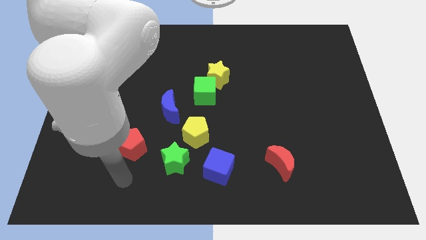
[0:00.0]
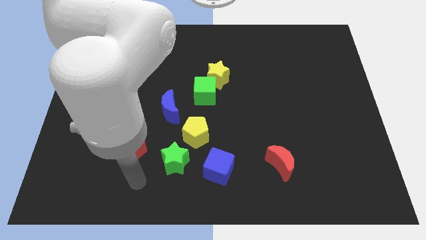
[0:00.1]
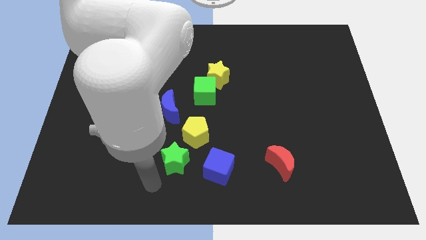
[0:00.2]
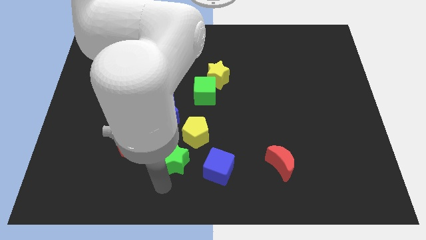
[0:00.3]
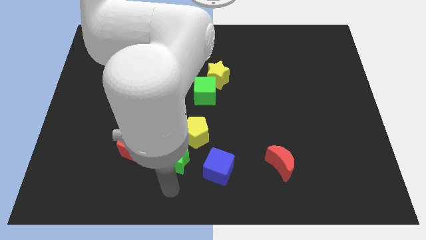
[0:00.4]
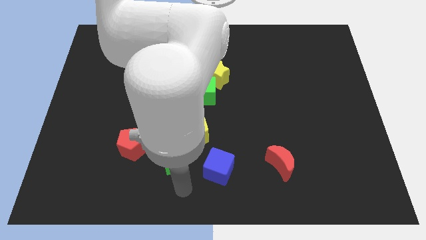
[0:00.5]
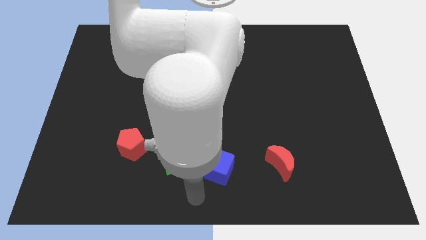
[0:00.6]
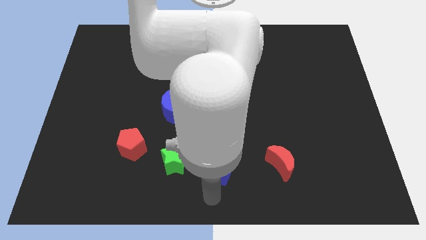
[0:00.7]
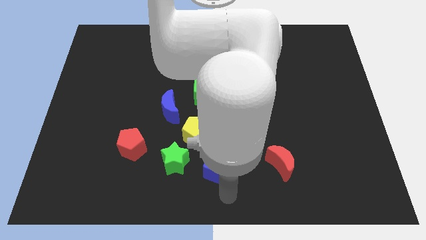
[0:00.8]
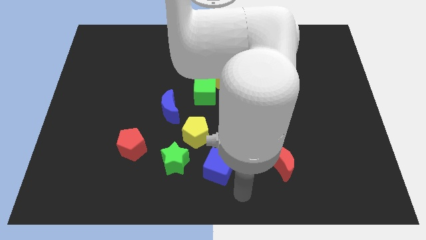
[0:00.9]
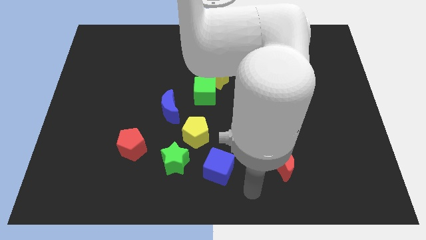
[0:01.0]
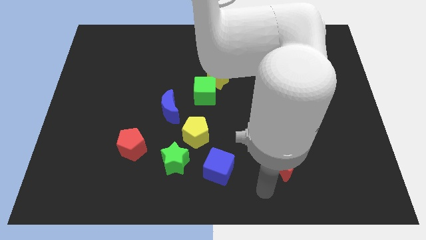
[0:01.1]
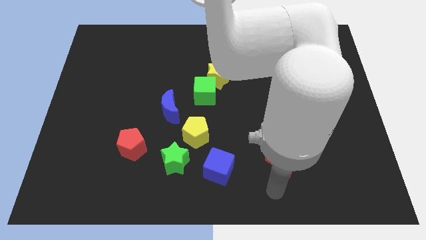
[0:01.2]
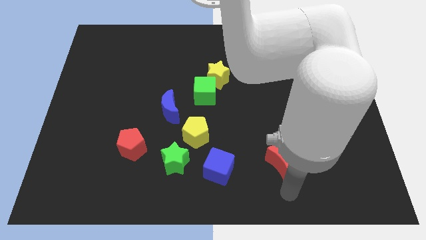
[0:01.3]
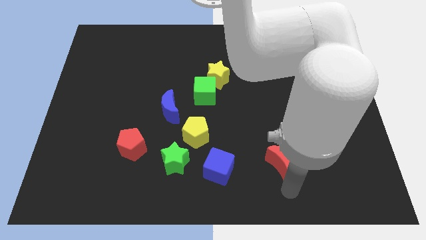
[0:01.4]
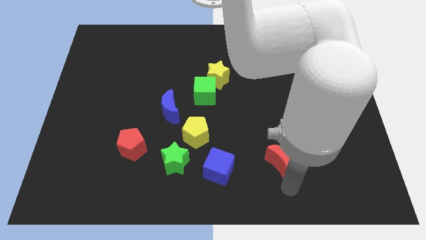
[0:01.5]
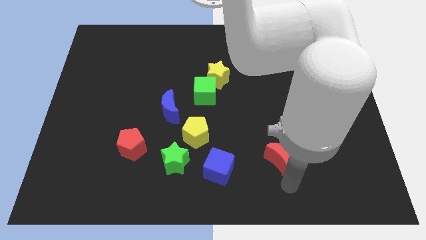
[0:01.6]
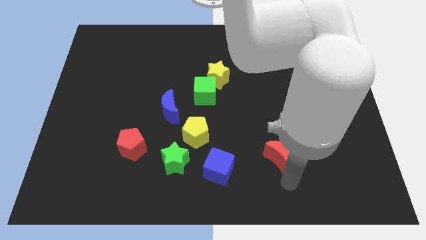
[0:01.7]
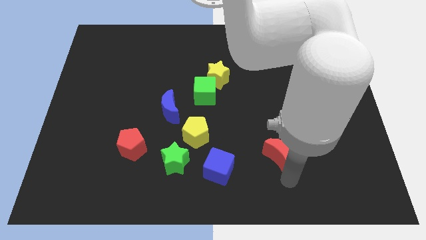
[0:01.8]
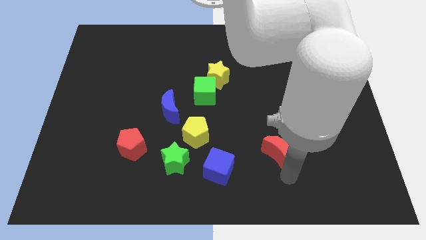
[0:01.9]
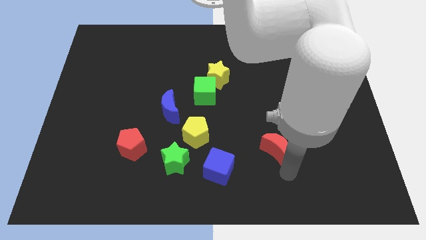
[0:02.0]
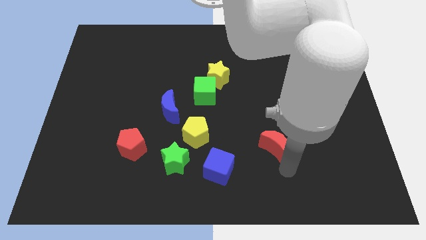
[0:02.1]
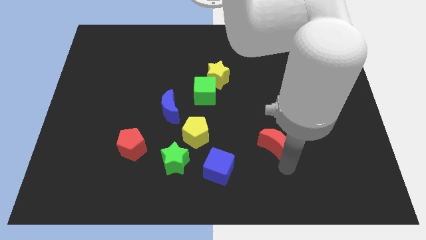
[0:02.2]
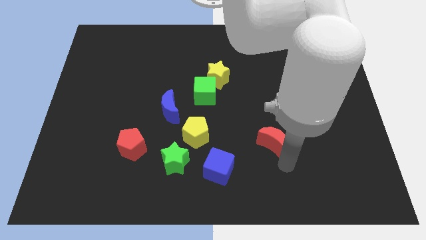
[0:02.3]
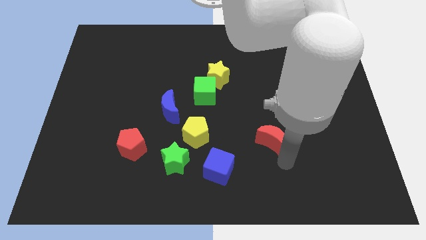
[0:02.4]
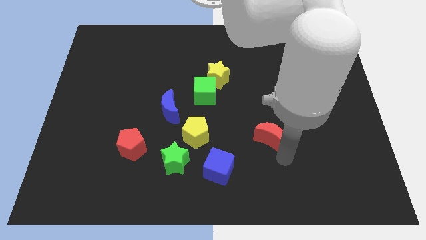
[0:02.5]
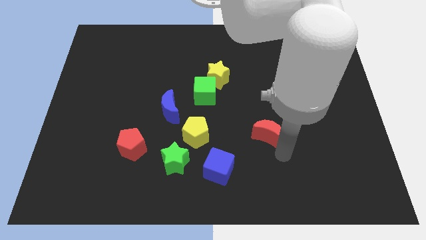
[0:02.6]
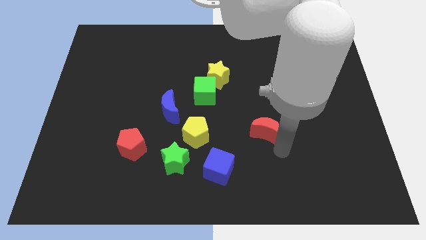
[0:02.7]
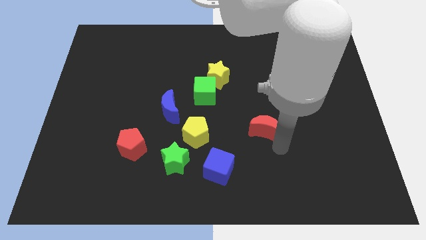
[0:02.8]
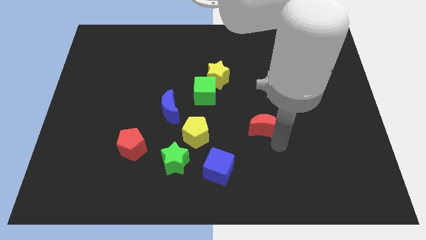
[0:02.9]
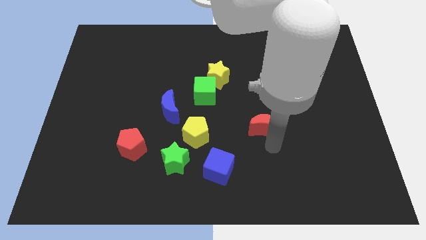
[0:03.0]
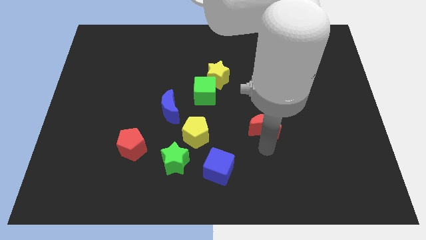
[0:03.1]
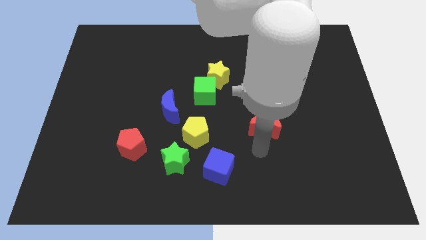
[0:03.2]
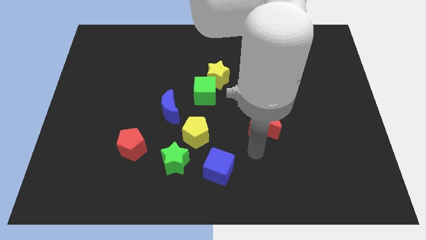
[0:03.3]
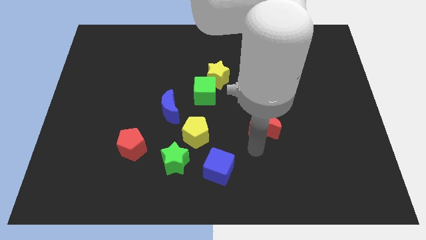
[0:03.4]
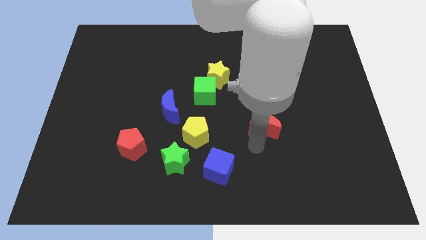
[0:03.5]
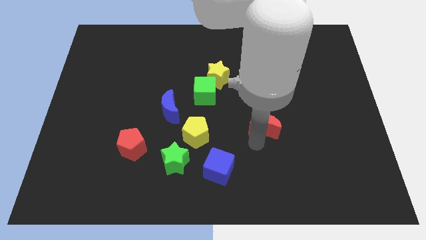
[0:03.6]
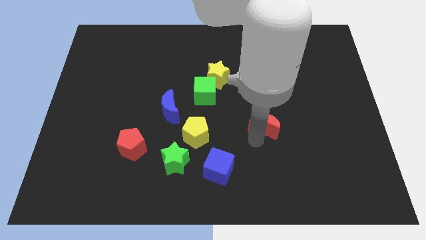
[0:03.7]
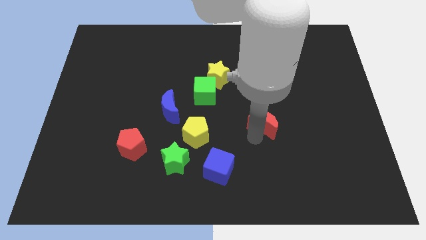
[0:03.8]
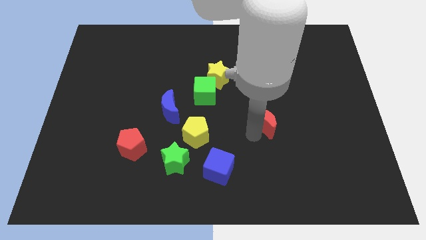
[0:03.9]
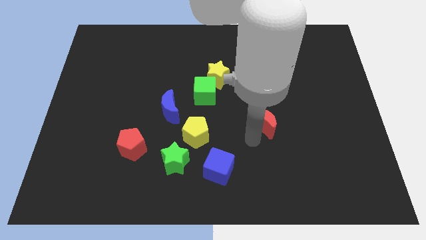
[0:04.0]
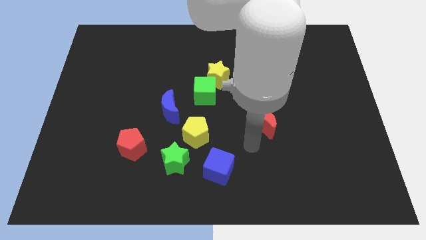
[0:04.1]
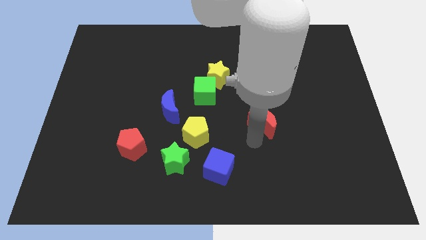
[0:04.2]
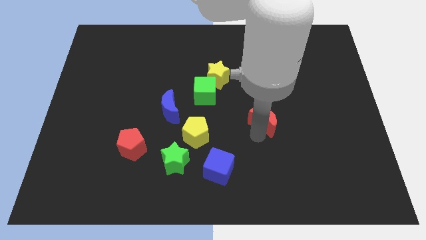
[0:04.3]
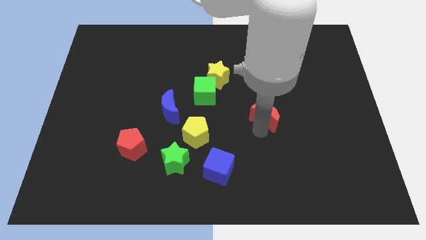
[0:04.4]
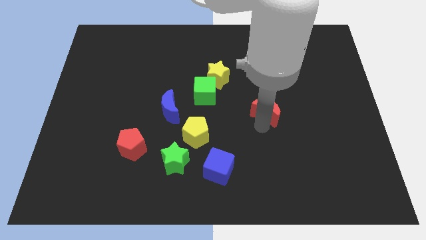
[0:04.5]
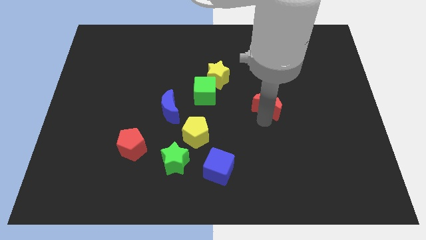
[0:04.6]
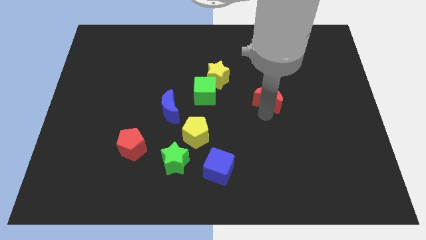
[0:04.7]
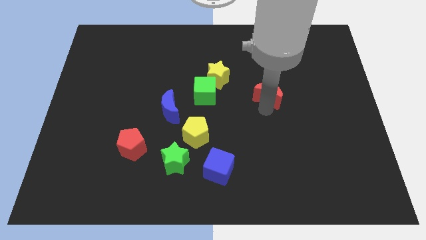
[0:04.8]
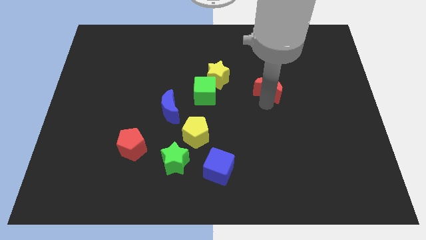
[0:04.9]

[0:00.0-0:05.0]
move the red moon up

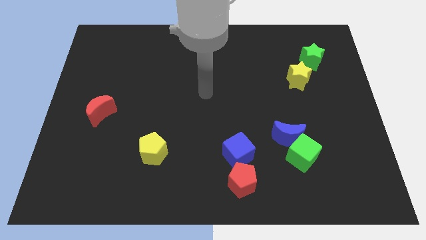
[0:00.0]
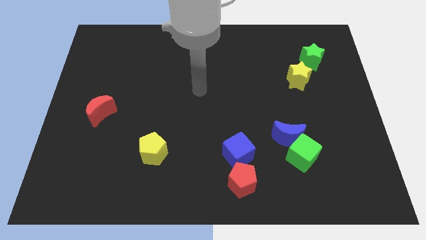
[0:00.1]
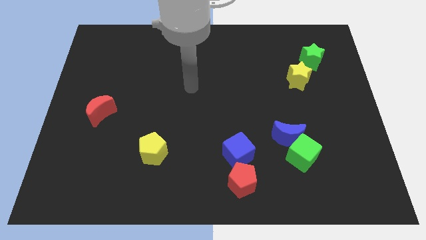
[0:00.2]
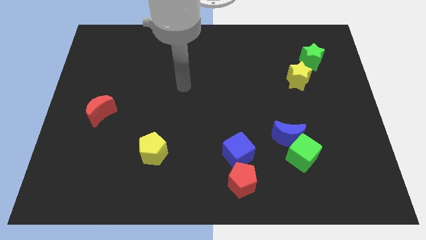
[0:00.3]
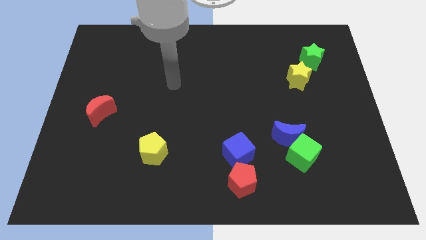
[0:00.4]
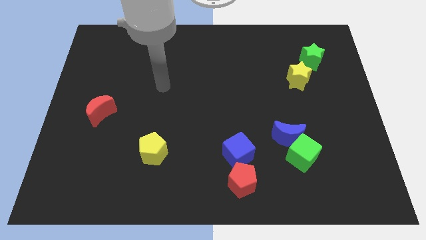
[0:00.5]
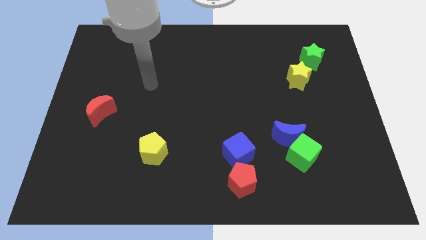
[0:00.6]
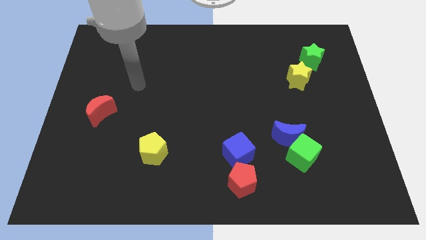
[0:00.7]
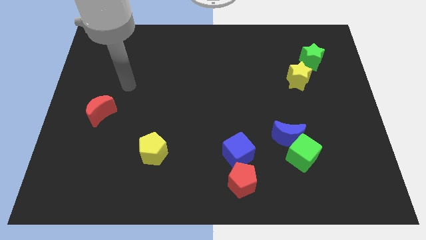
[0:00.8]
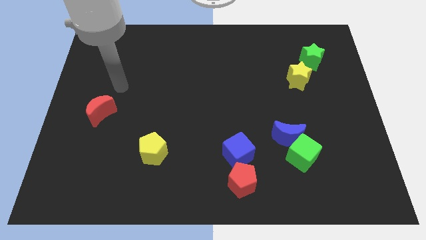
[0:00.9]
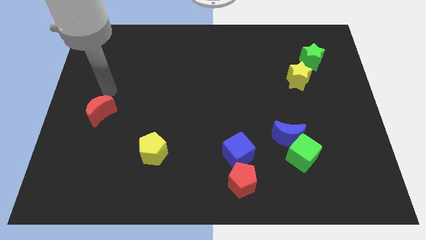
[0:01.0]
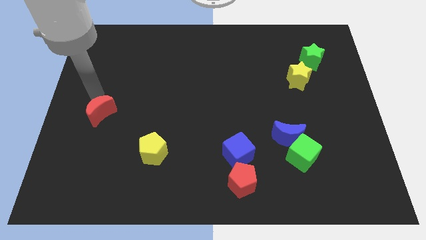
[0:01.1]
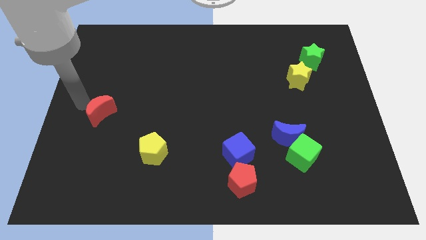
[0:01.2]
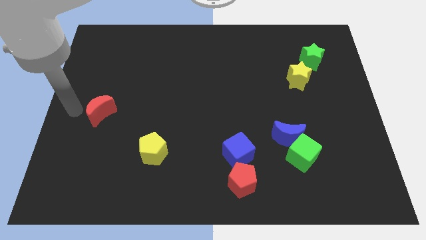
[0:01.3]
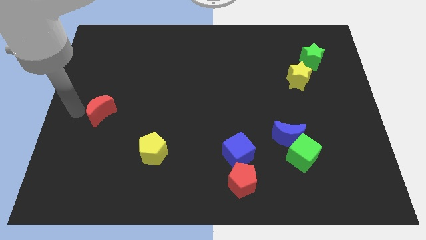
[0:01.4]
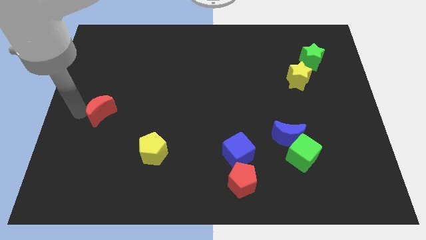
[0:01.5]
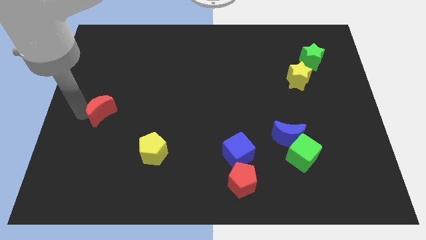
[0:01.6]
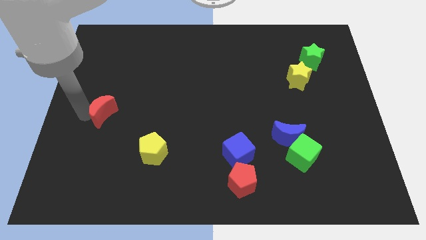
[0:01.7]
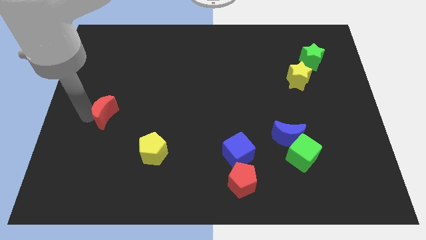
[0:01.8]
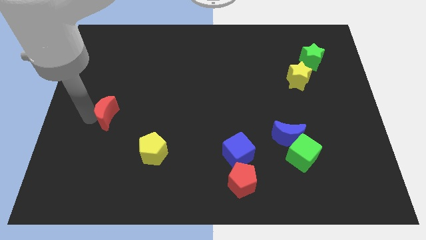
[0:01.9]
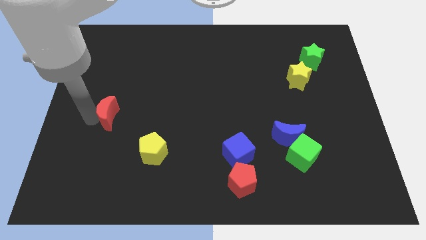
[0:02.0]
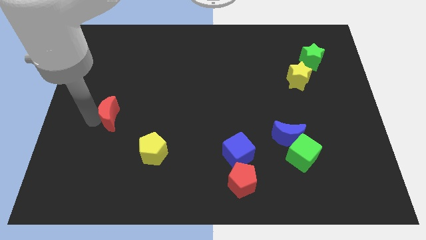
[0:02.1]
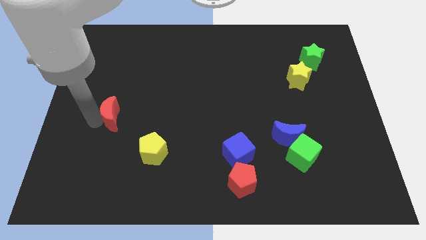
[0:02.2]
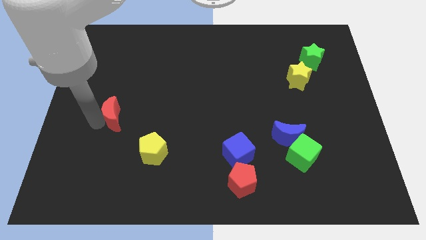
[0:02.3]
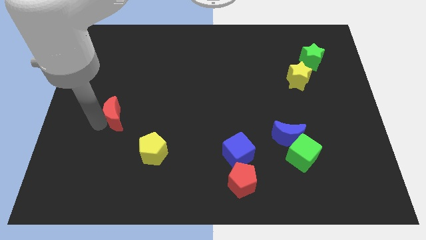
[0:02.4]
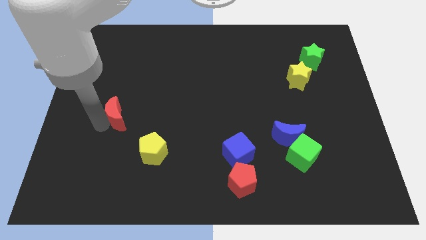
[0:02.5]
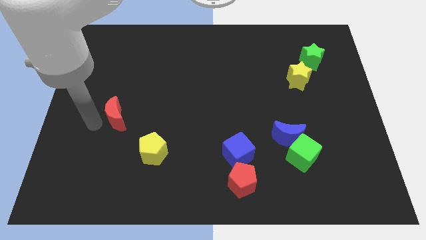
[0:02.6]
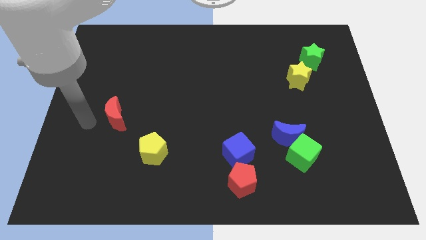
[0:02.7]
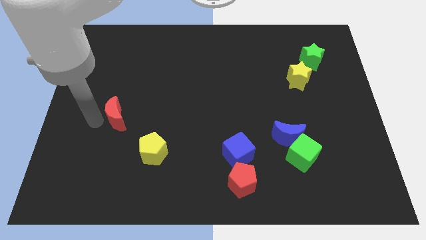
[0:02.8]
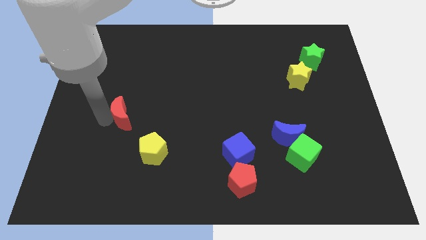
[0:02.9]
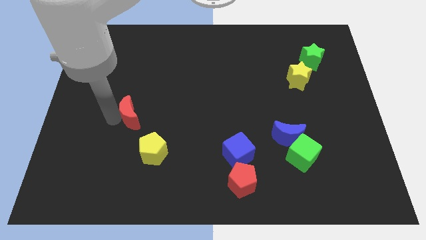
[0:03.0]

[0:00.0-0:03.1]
slightly push the red moon to the right
